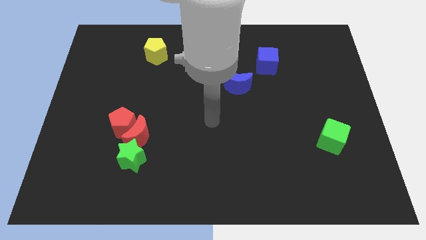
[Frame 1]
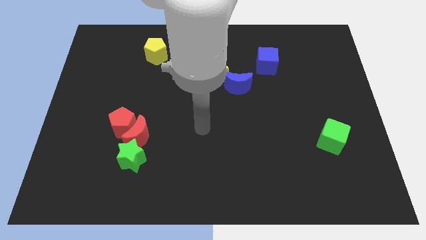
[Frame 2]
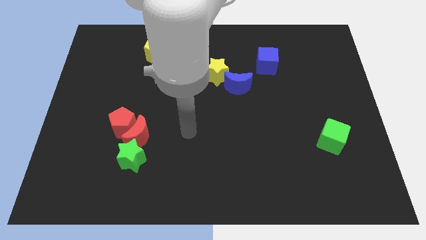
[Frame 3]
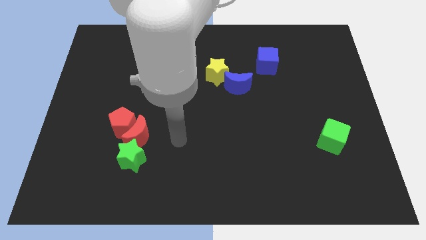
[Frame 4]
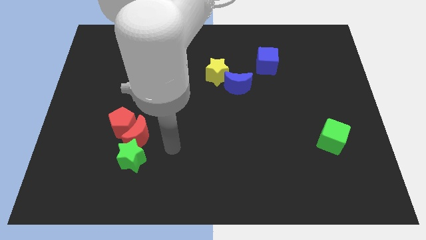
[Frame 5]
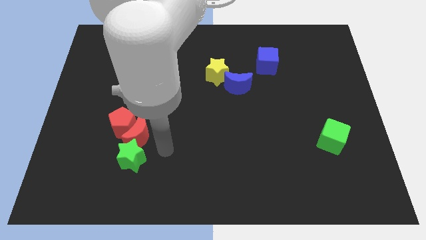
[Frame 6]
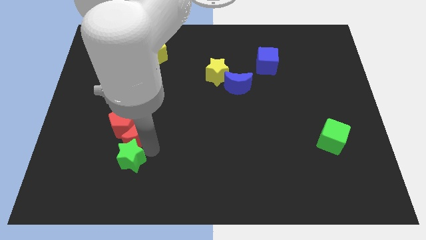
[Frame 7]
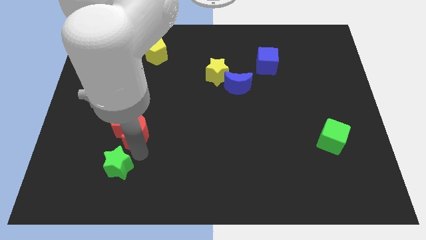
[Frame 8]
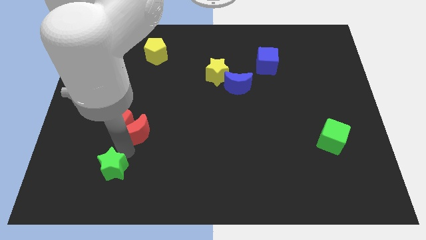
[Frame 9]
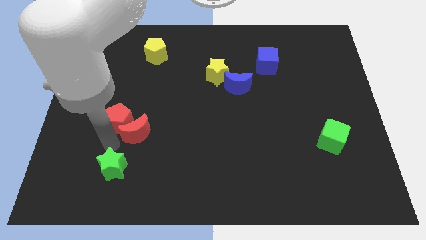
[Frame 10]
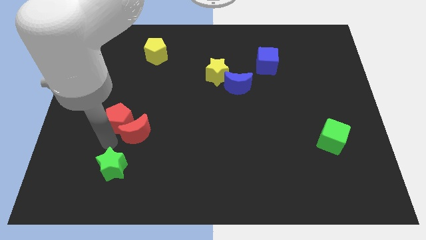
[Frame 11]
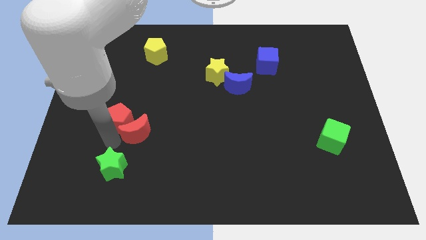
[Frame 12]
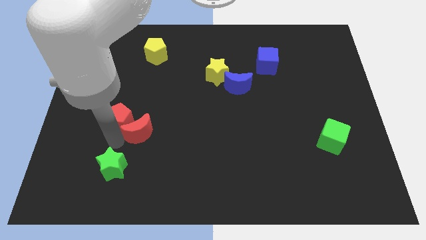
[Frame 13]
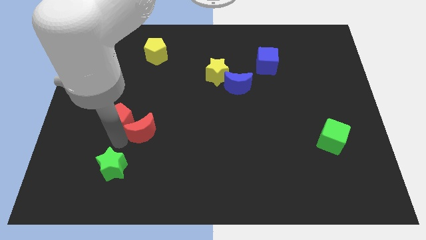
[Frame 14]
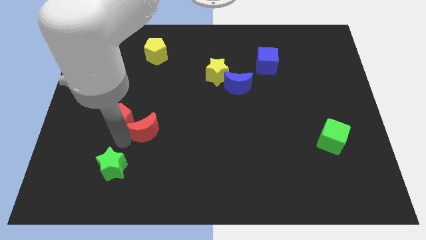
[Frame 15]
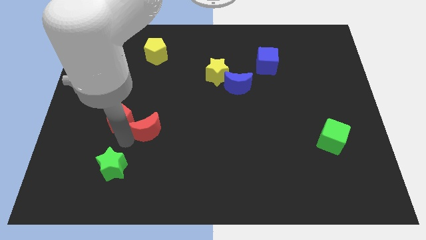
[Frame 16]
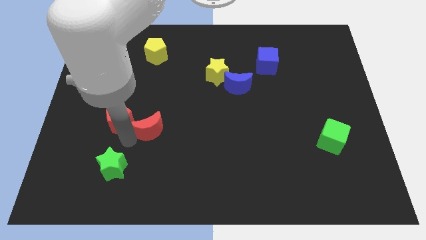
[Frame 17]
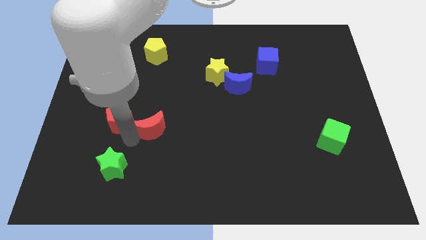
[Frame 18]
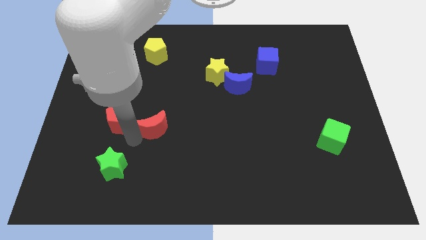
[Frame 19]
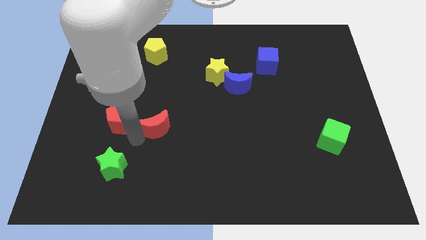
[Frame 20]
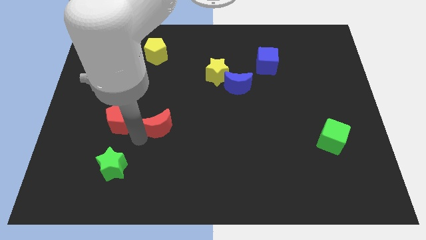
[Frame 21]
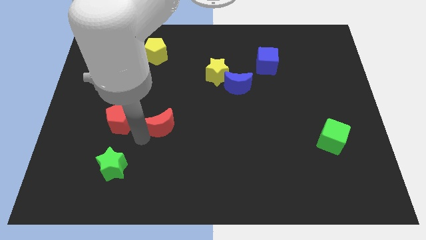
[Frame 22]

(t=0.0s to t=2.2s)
pull the red moon apart from the red pentagon and green star

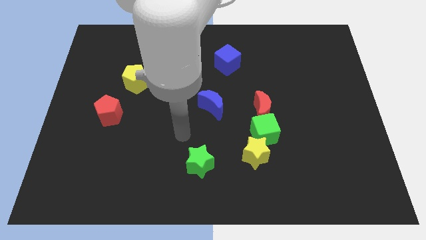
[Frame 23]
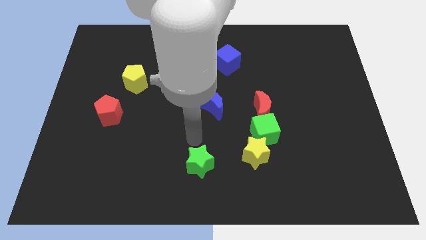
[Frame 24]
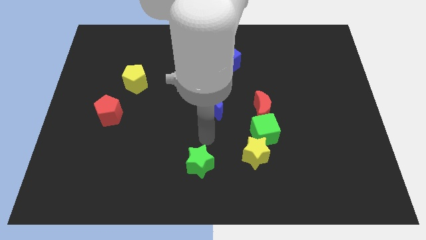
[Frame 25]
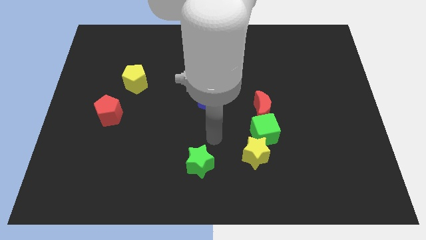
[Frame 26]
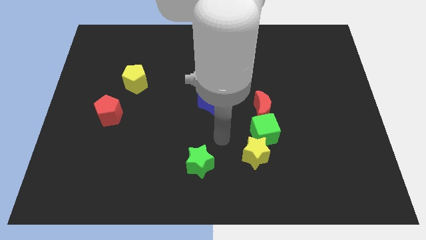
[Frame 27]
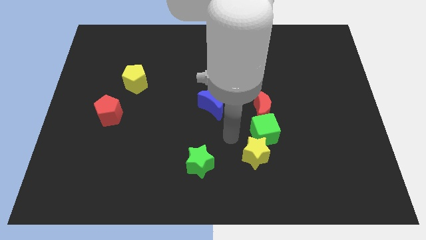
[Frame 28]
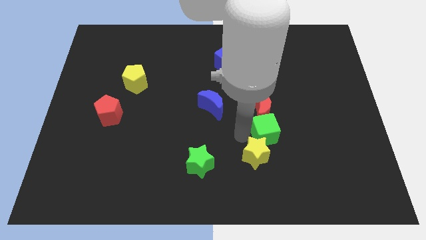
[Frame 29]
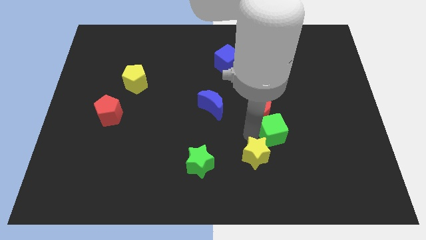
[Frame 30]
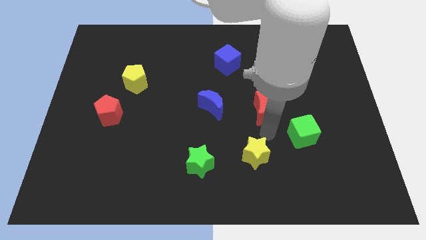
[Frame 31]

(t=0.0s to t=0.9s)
pull the yellow star apart from the green cube

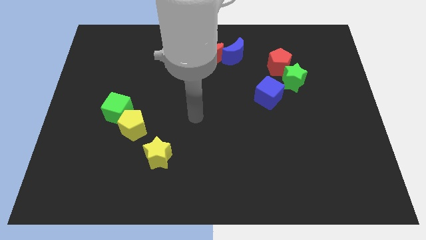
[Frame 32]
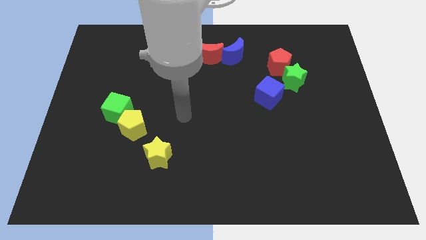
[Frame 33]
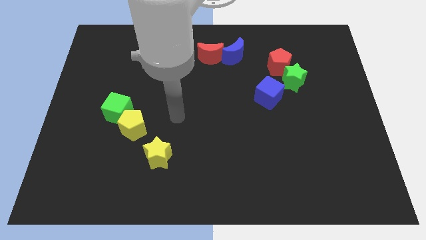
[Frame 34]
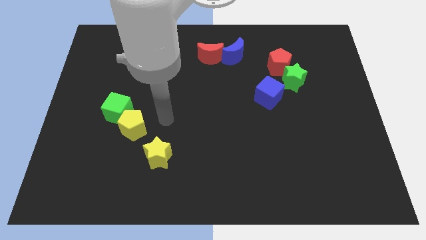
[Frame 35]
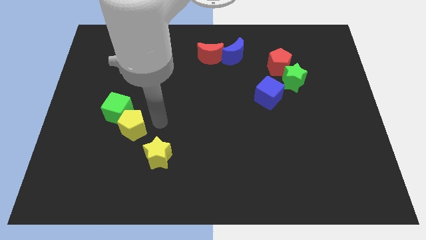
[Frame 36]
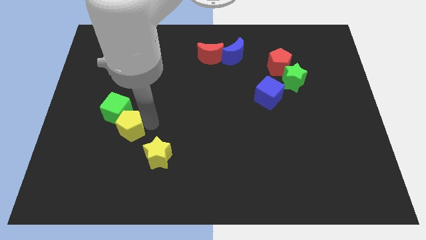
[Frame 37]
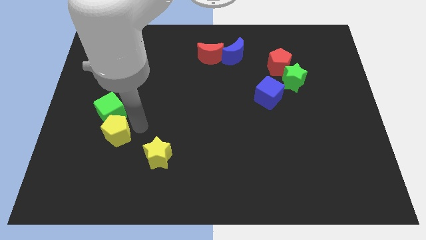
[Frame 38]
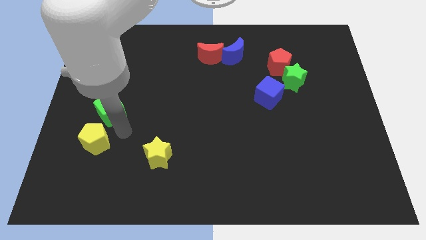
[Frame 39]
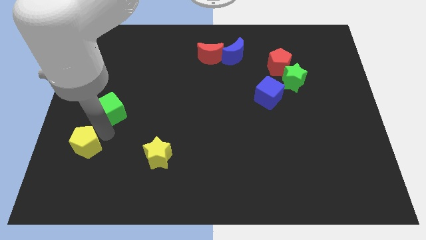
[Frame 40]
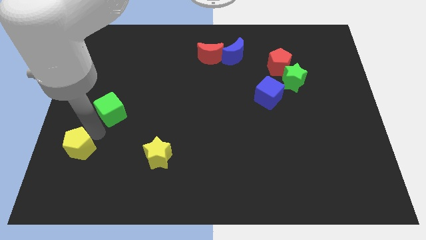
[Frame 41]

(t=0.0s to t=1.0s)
pull the green cube apart from the yellow pentagon

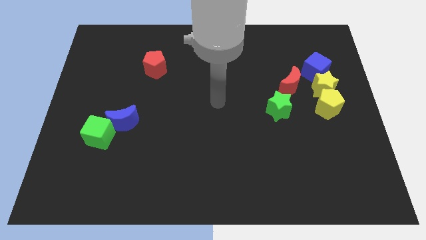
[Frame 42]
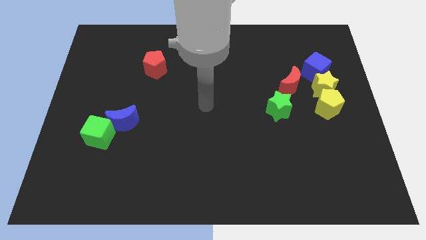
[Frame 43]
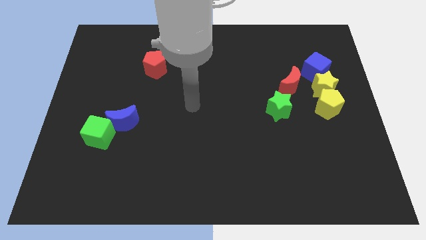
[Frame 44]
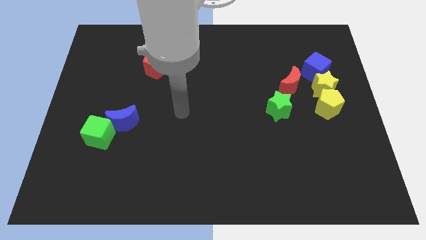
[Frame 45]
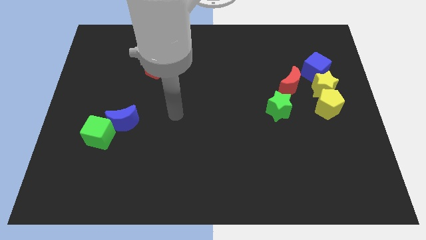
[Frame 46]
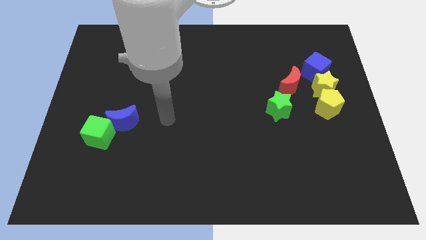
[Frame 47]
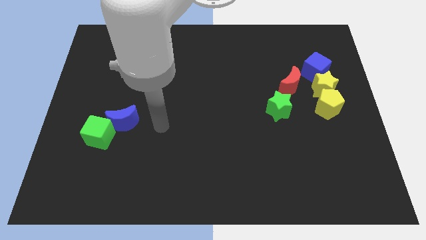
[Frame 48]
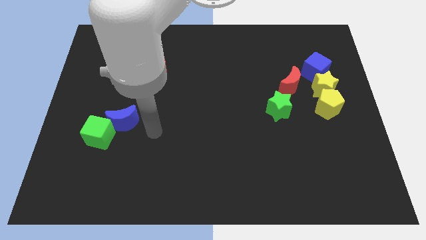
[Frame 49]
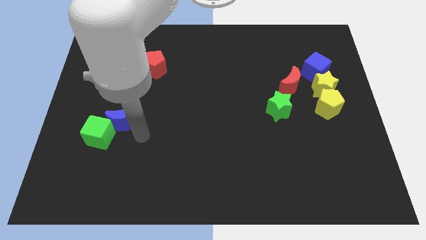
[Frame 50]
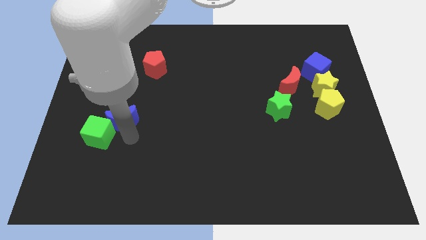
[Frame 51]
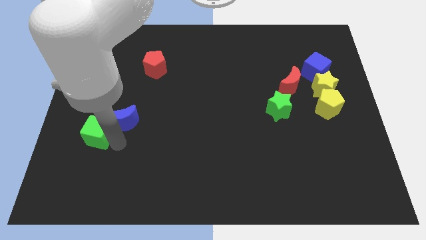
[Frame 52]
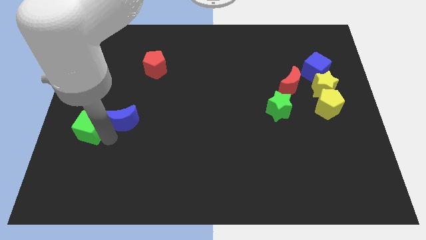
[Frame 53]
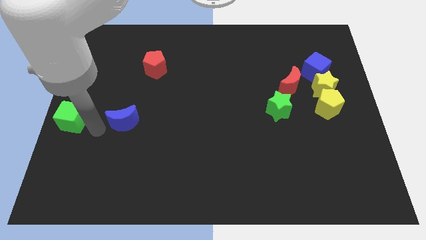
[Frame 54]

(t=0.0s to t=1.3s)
separate the blue moon from the green cube

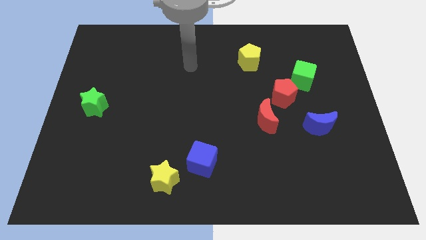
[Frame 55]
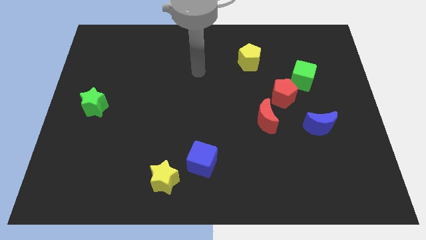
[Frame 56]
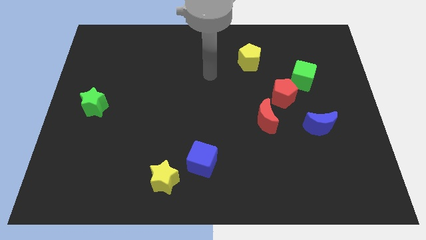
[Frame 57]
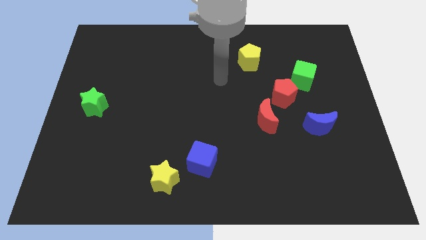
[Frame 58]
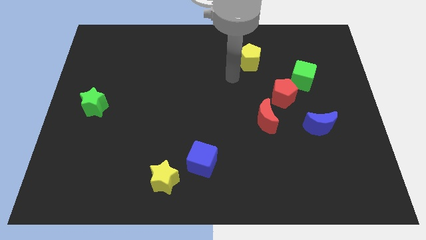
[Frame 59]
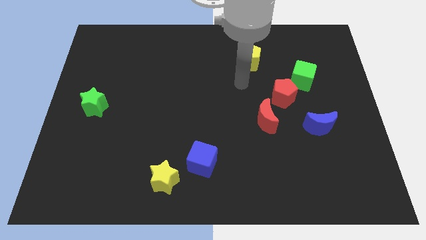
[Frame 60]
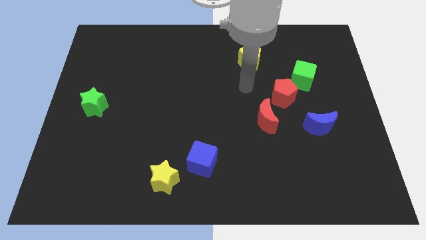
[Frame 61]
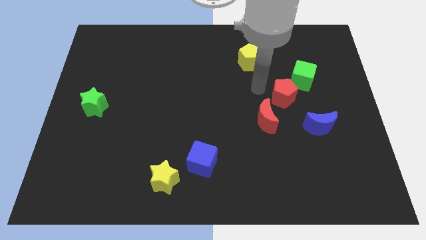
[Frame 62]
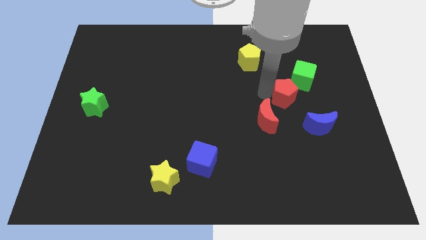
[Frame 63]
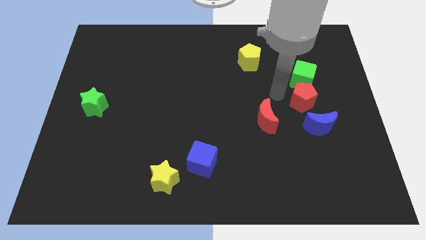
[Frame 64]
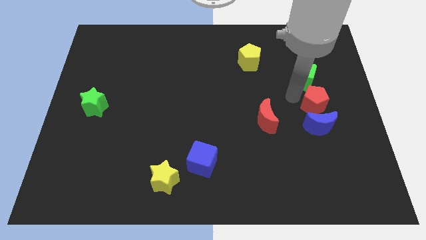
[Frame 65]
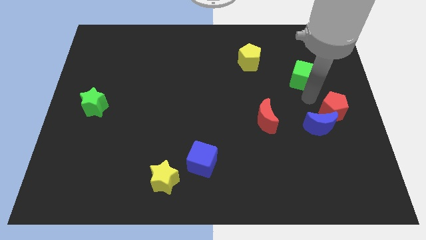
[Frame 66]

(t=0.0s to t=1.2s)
move the green cube away from the red pentagon

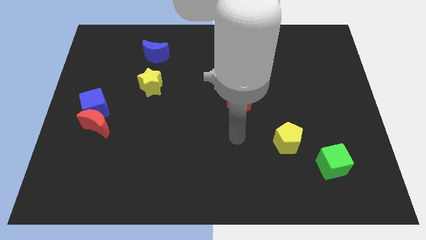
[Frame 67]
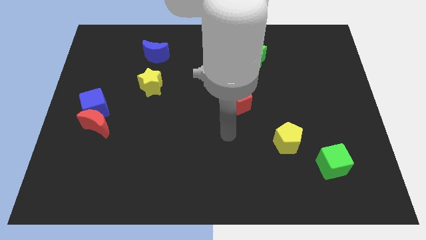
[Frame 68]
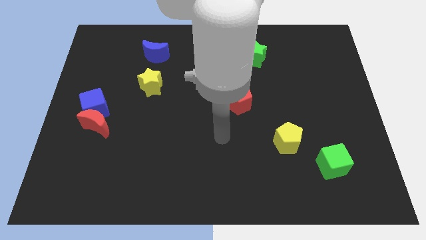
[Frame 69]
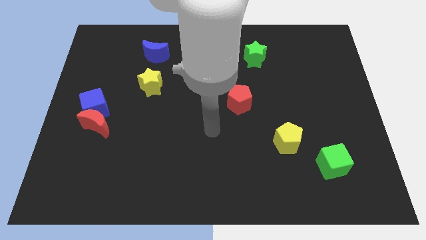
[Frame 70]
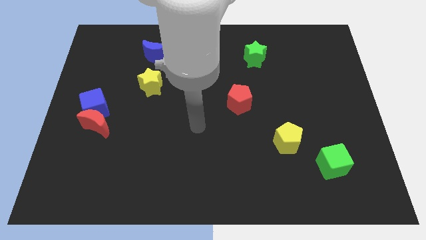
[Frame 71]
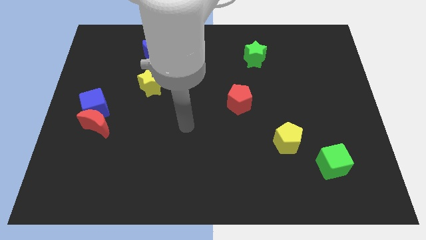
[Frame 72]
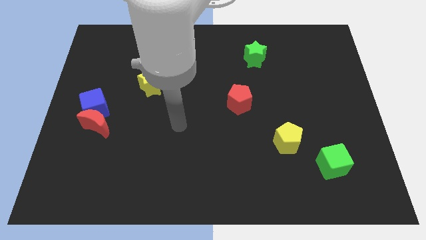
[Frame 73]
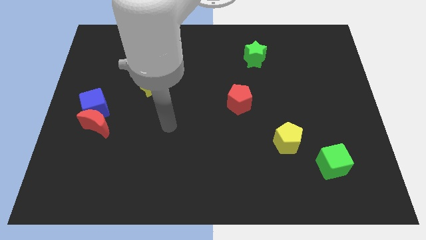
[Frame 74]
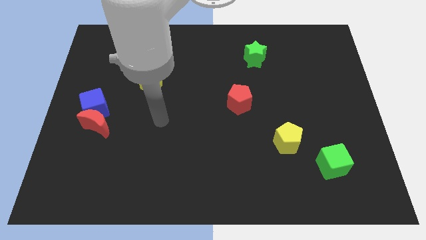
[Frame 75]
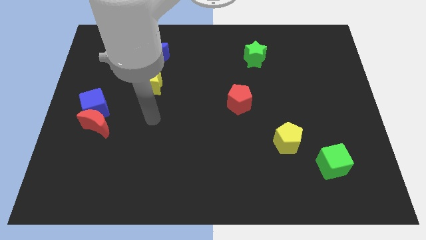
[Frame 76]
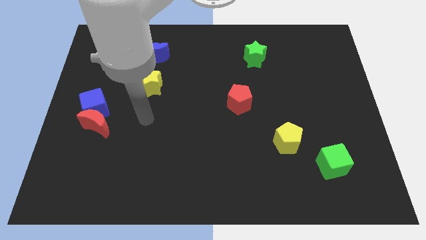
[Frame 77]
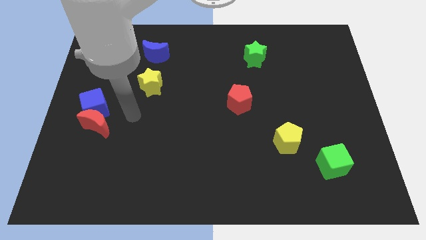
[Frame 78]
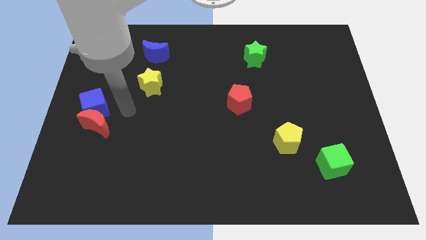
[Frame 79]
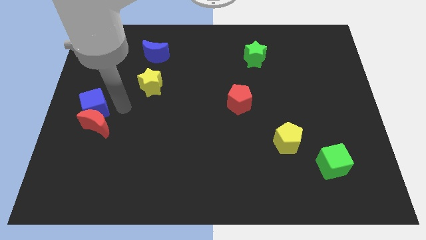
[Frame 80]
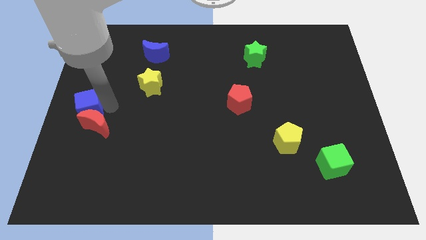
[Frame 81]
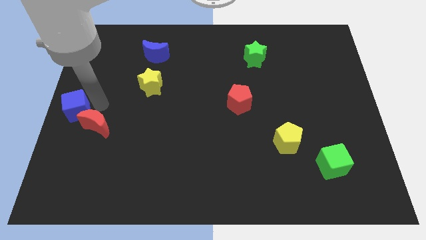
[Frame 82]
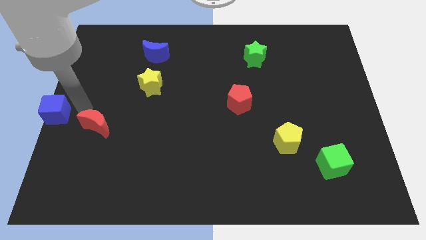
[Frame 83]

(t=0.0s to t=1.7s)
pull the red moon apart from the blue cube

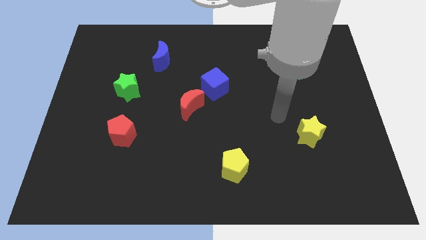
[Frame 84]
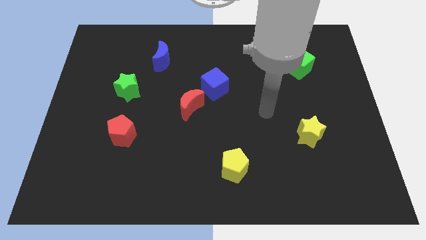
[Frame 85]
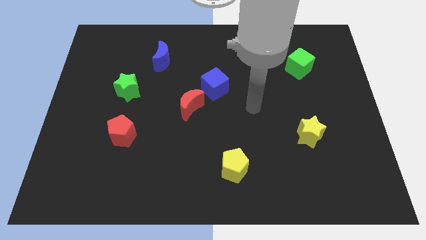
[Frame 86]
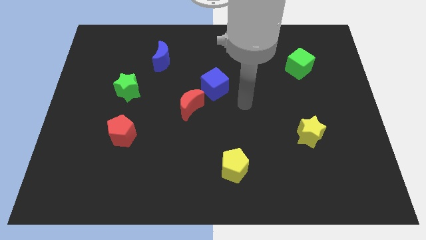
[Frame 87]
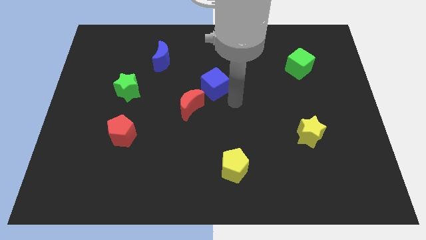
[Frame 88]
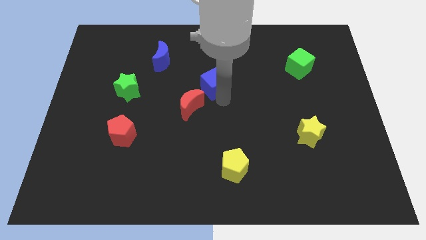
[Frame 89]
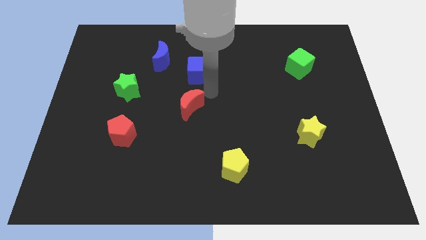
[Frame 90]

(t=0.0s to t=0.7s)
move the red moon away from the blue cube

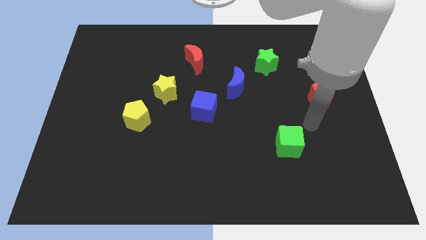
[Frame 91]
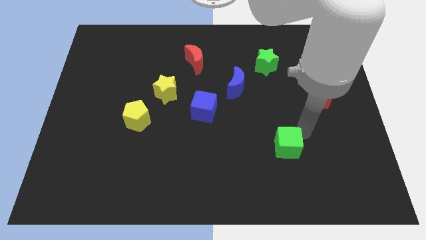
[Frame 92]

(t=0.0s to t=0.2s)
move the yellow star away from the yellow pentagon
